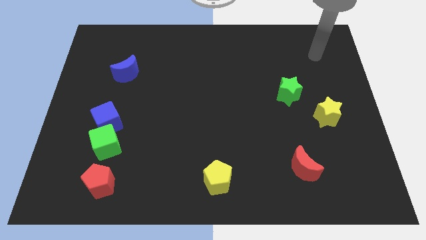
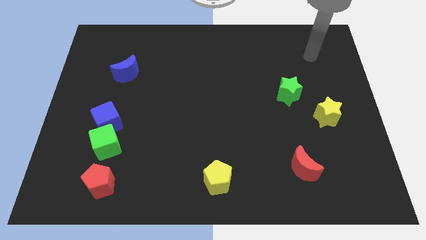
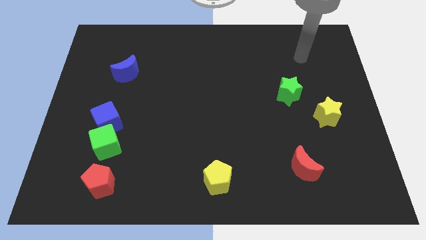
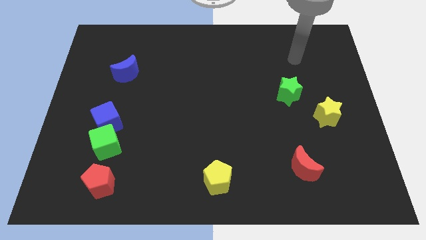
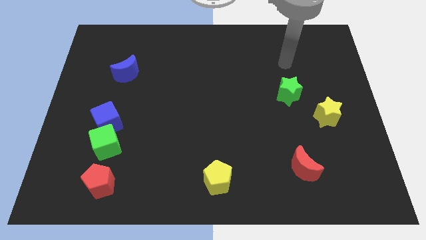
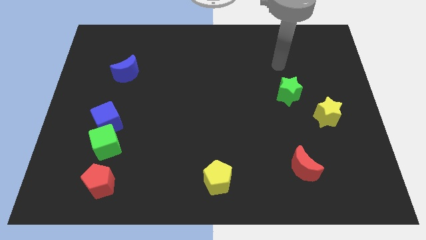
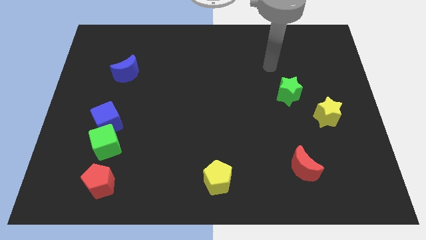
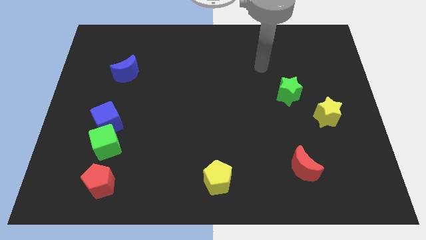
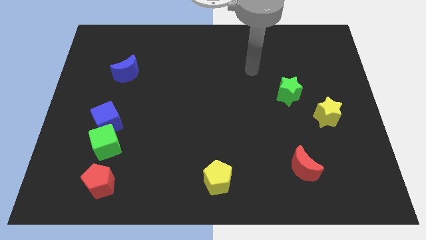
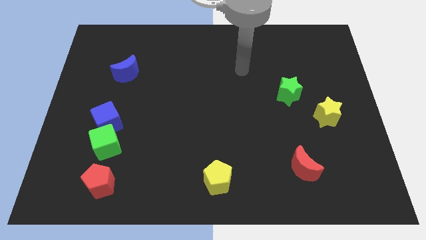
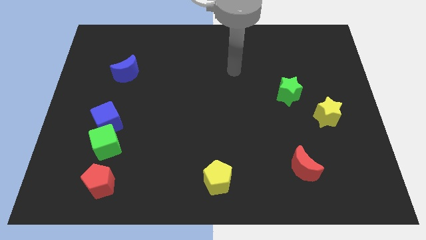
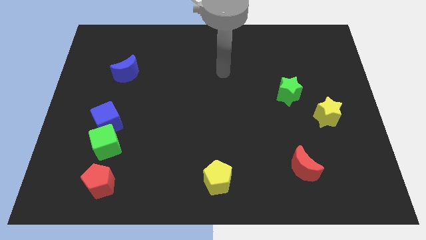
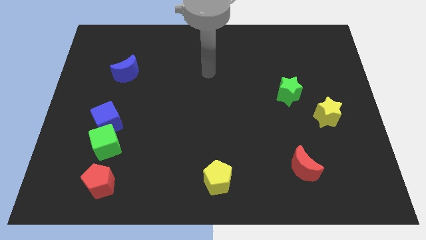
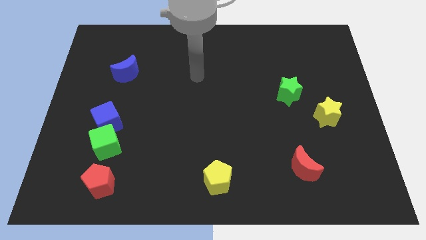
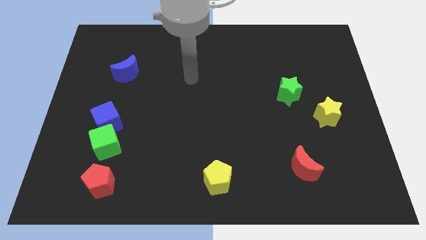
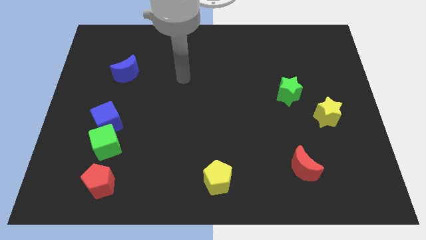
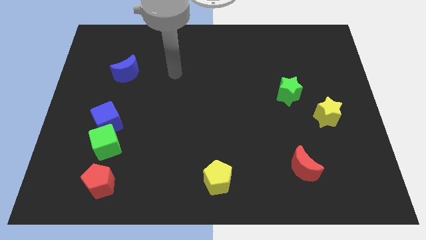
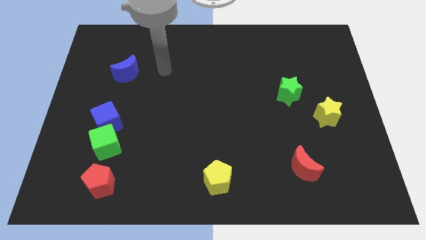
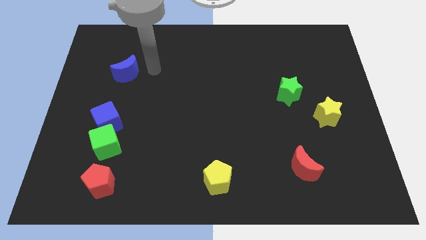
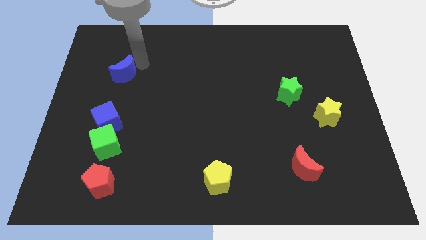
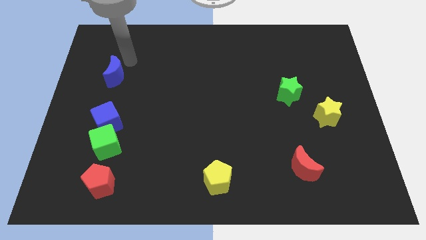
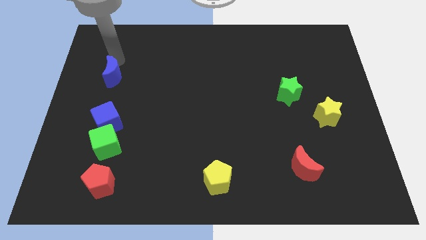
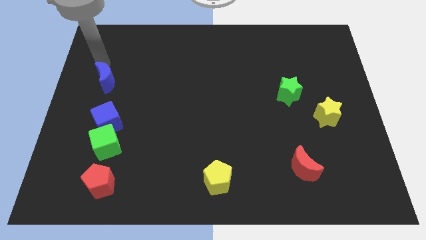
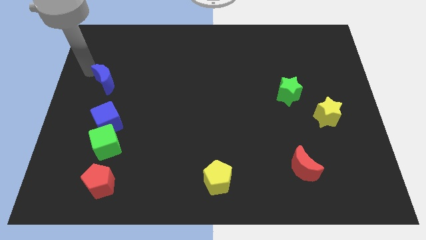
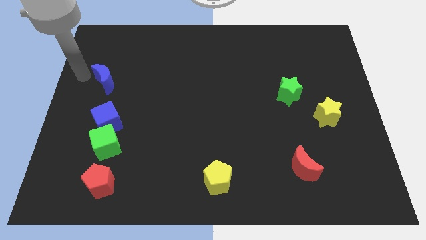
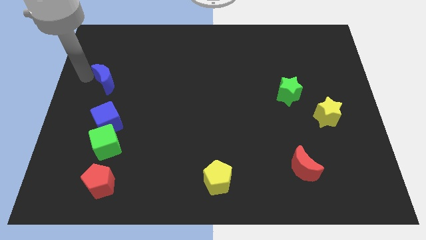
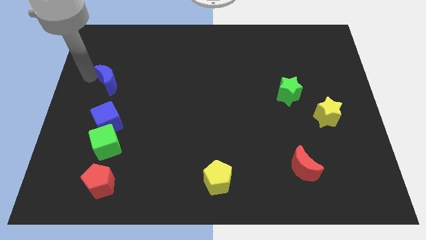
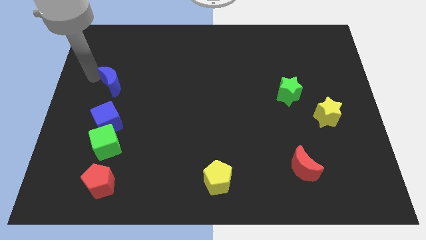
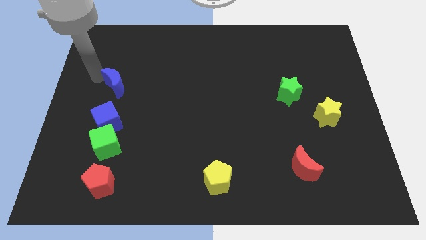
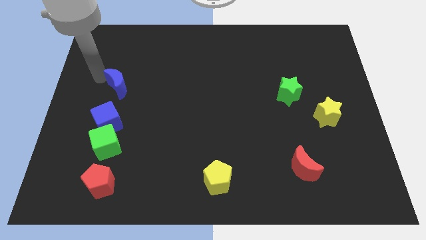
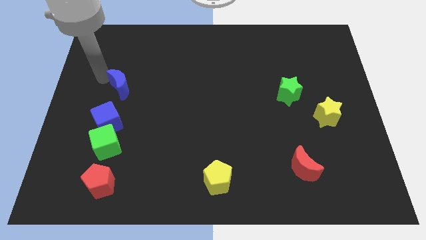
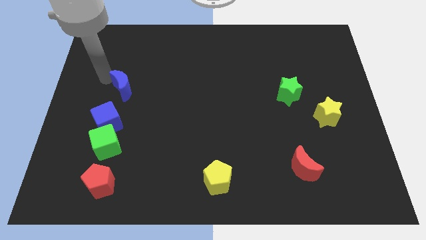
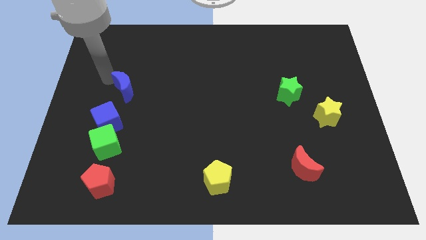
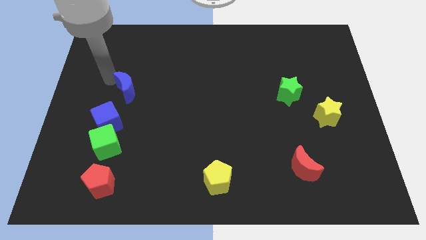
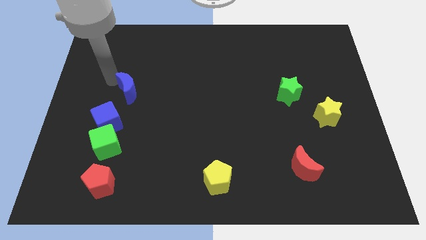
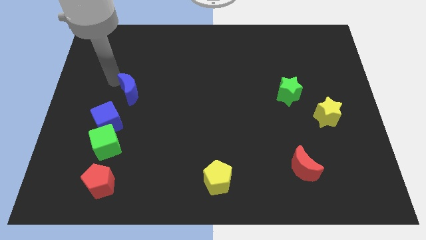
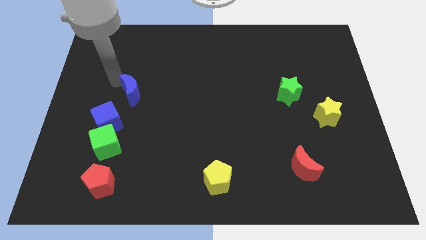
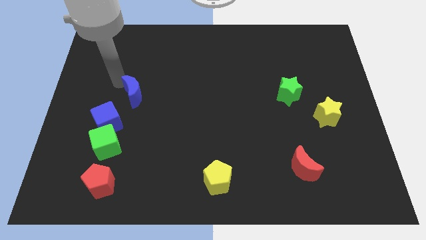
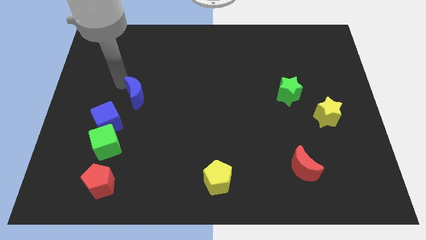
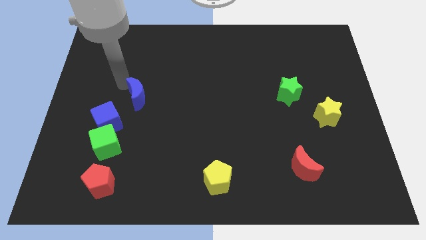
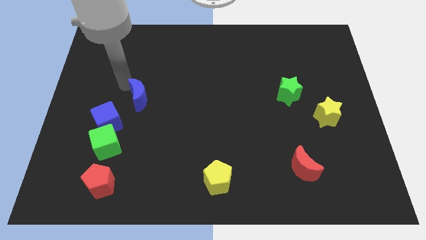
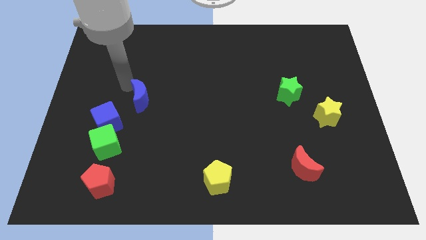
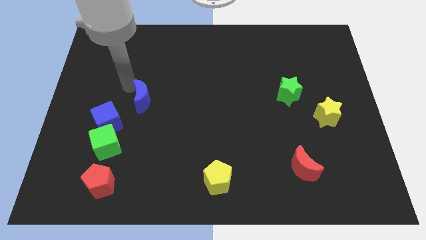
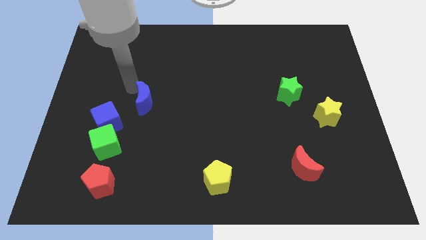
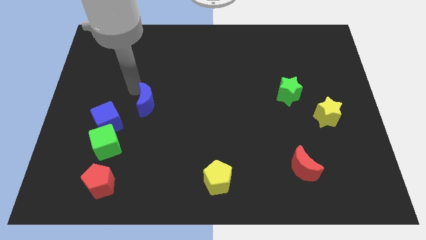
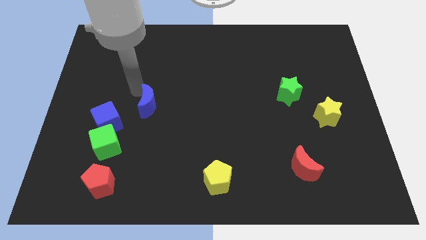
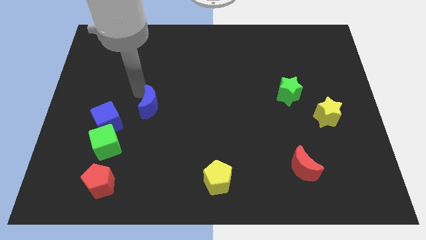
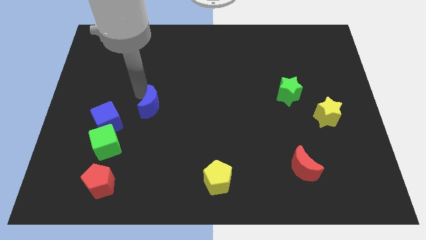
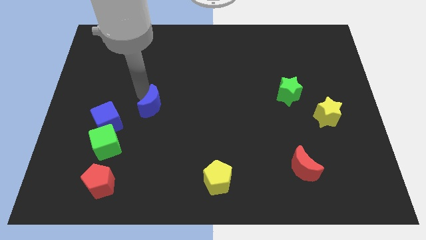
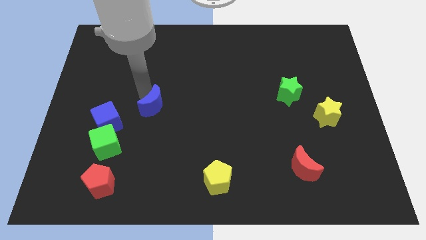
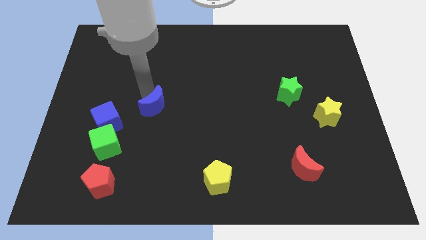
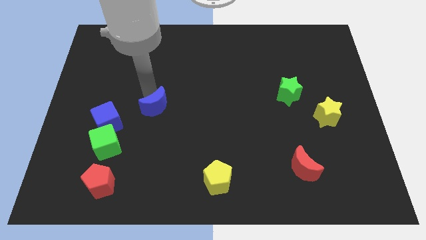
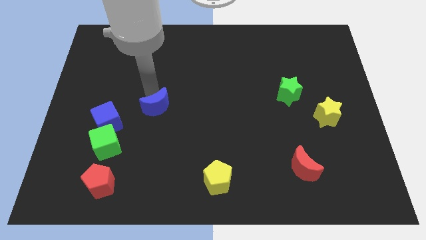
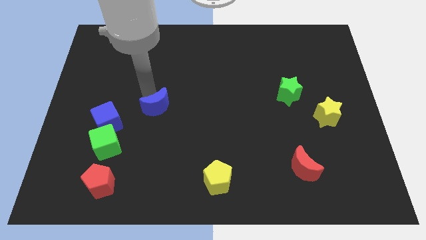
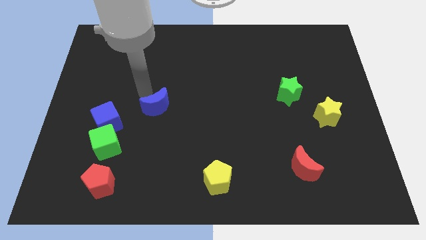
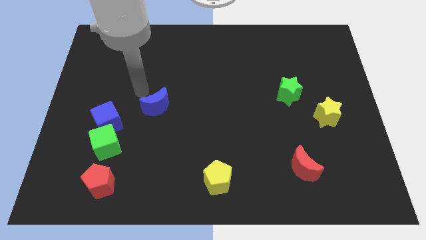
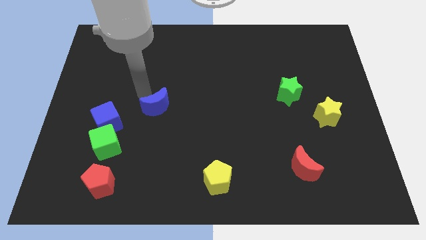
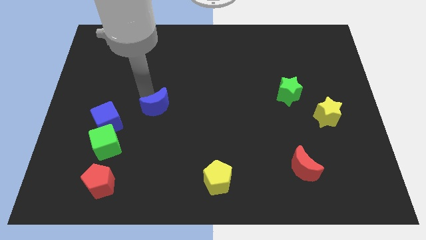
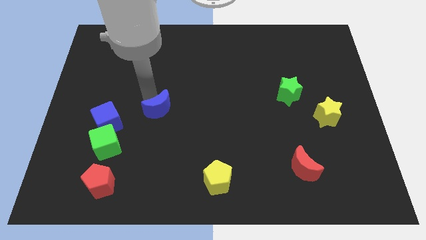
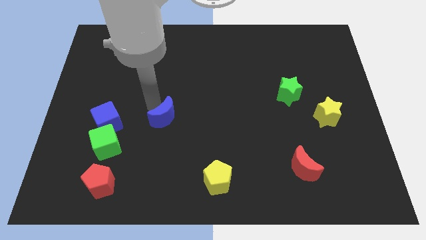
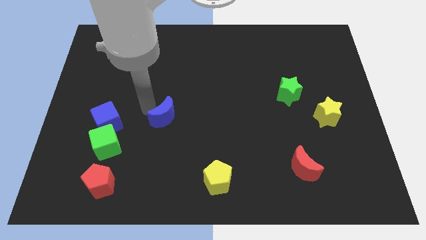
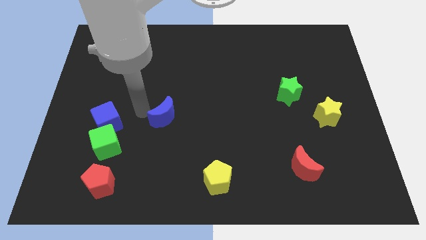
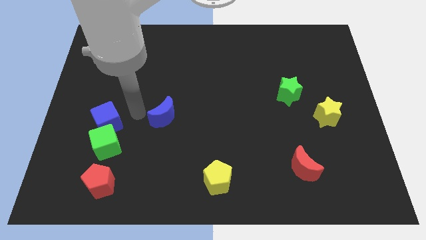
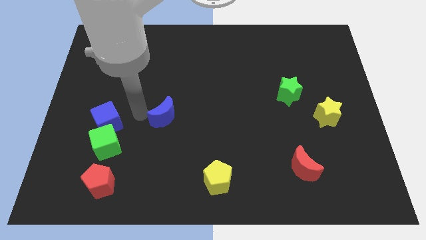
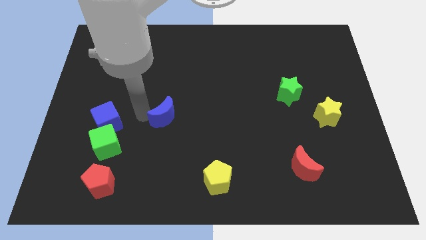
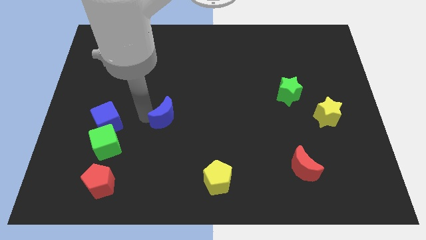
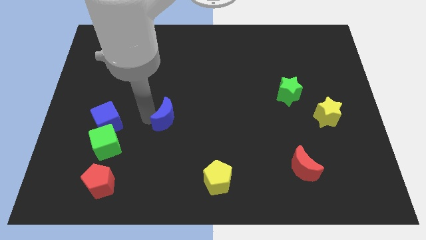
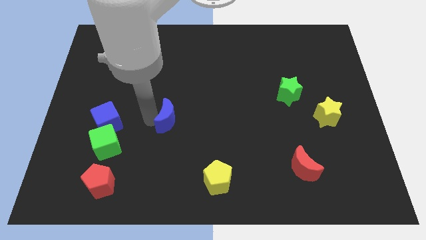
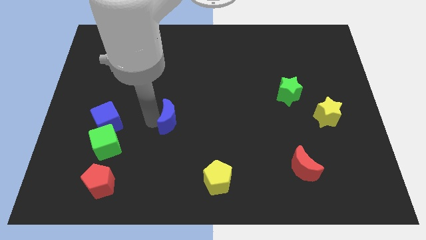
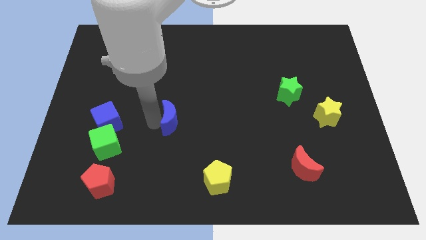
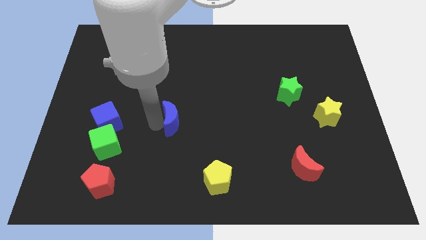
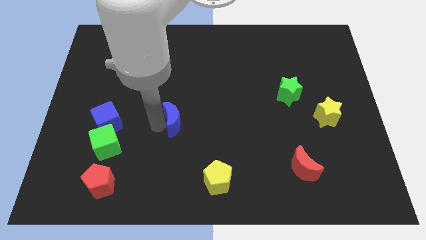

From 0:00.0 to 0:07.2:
move the blue moon down and then to the right

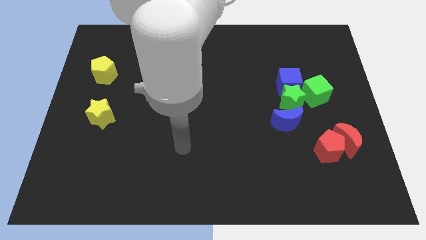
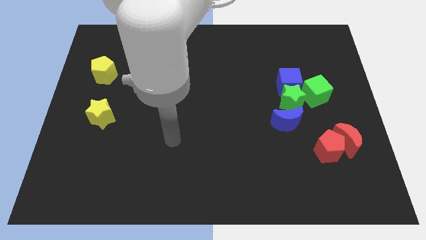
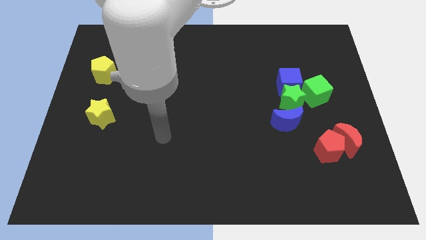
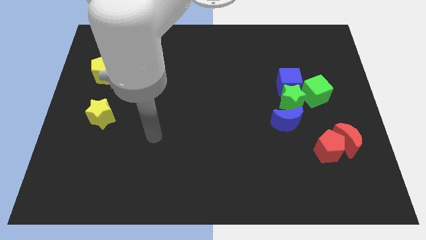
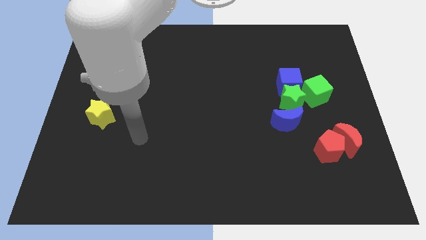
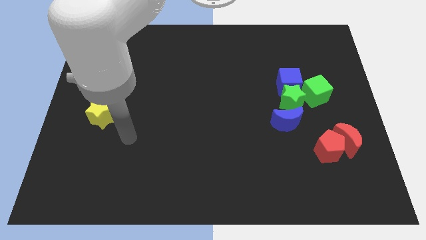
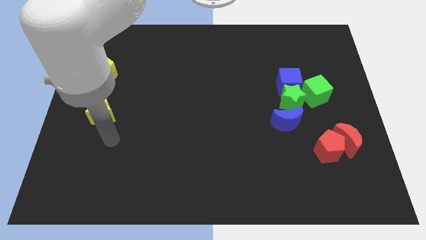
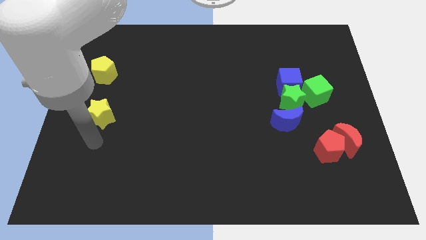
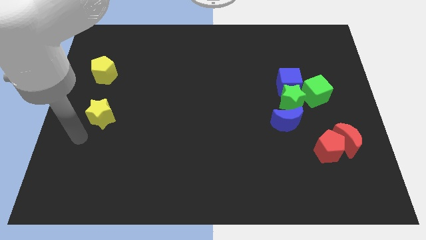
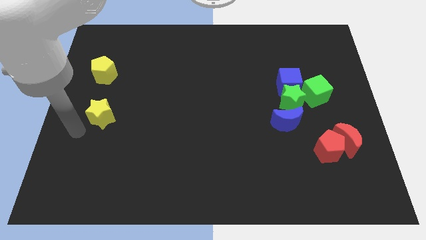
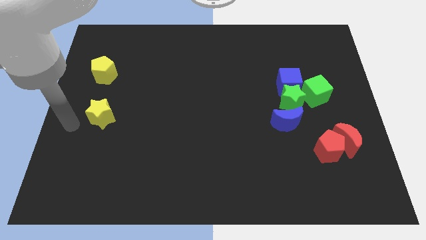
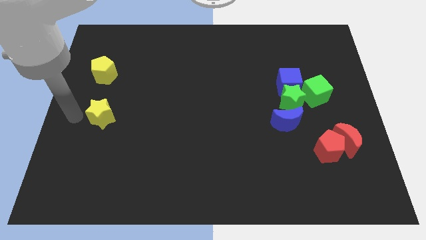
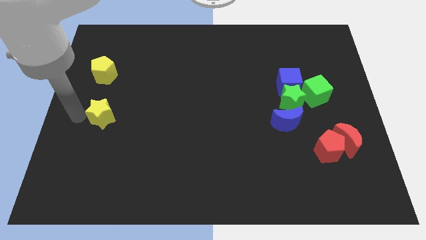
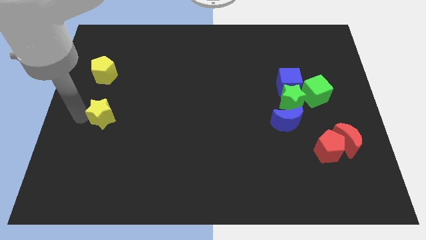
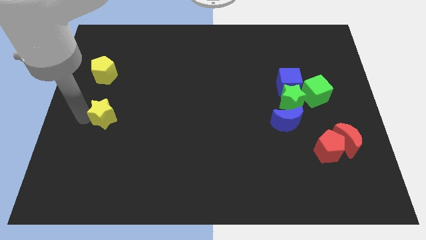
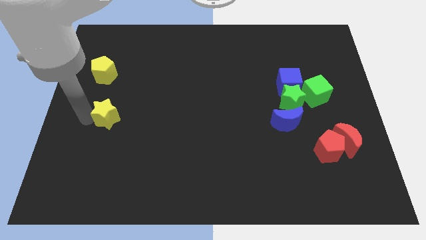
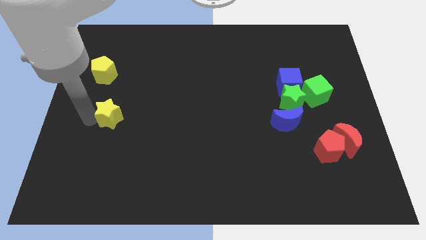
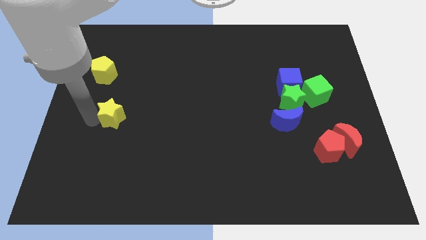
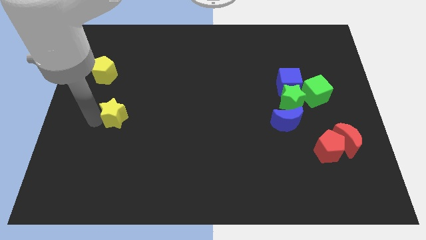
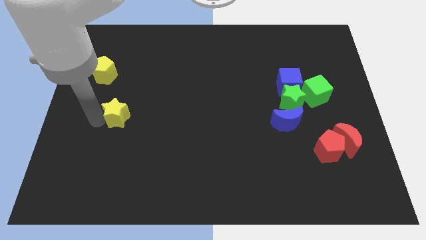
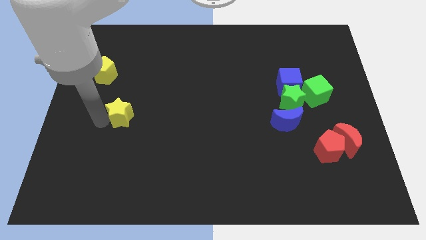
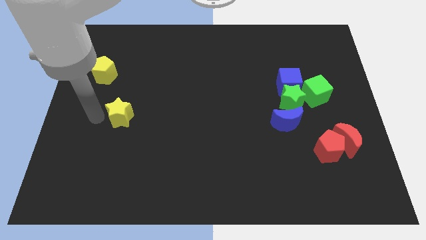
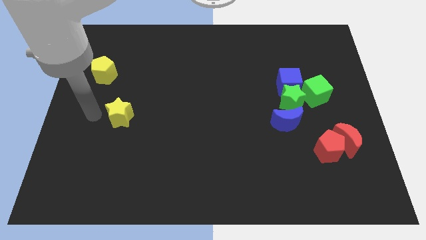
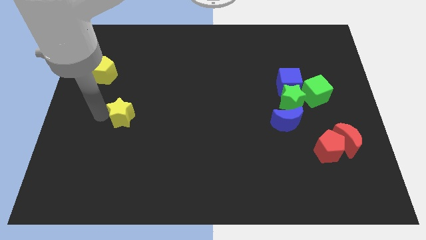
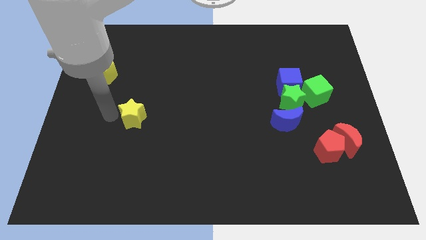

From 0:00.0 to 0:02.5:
slightly push the yellow star right
